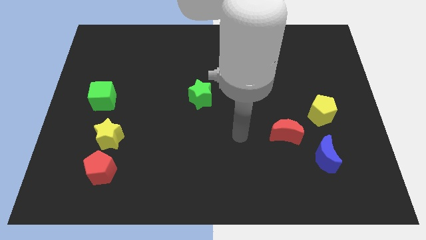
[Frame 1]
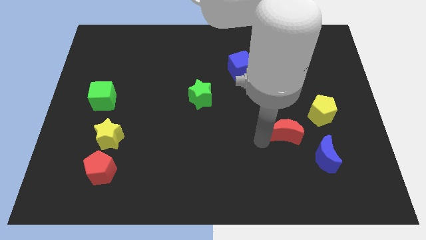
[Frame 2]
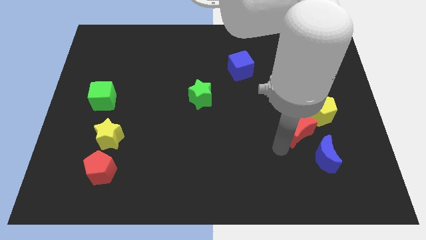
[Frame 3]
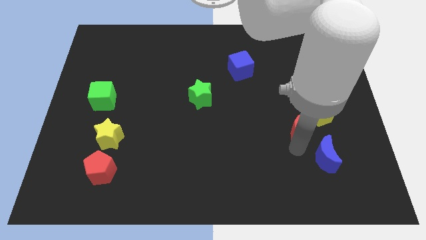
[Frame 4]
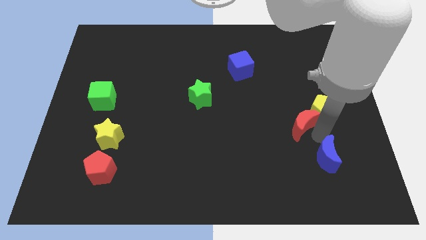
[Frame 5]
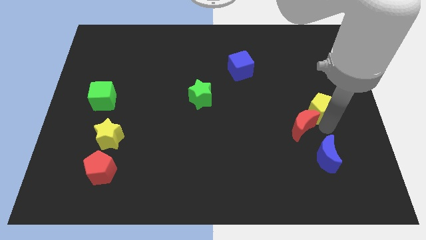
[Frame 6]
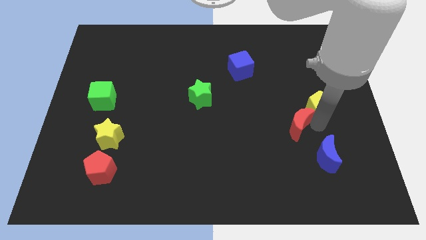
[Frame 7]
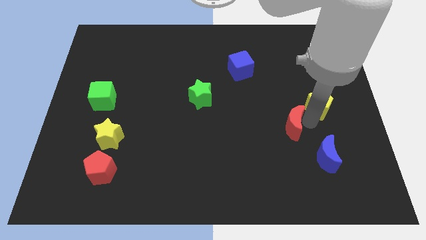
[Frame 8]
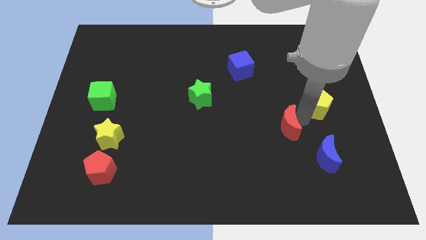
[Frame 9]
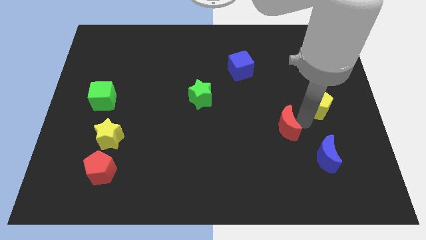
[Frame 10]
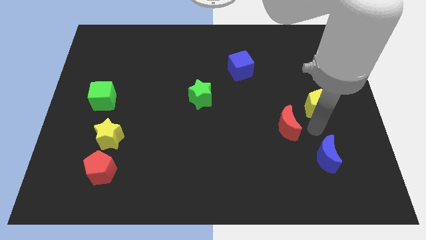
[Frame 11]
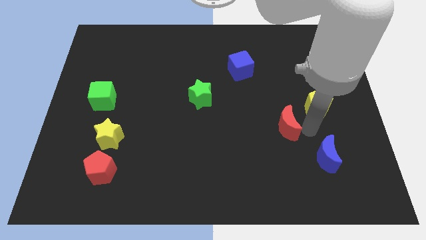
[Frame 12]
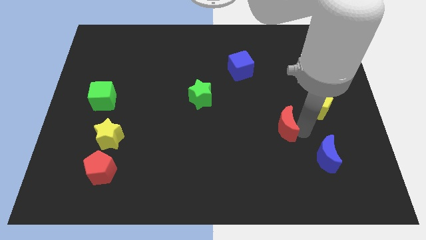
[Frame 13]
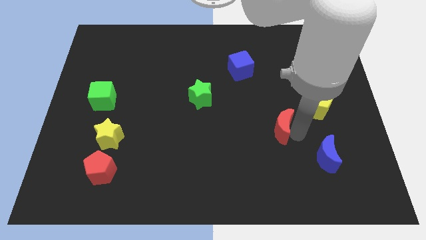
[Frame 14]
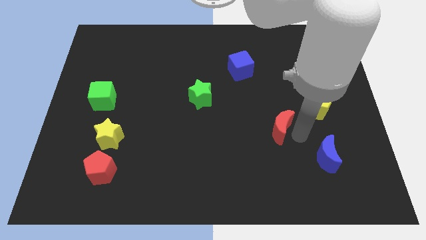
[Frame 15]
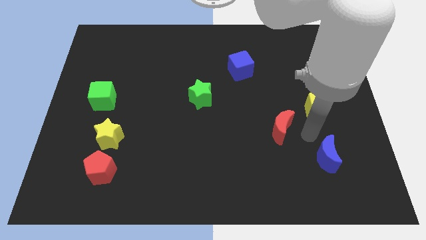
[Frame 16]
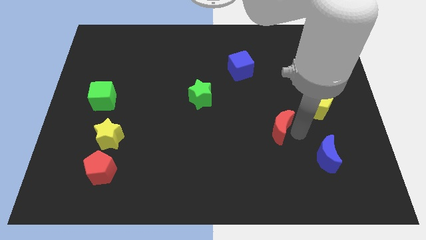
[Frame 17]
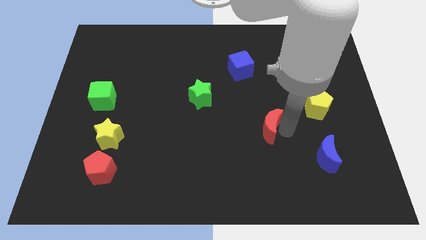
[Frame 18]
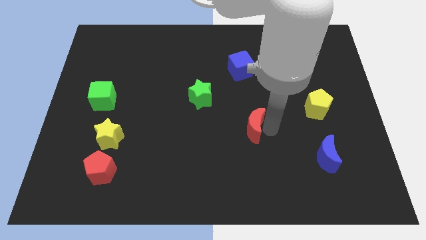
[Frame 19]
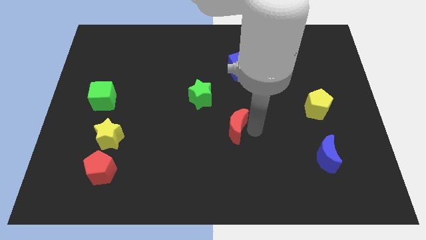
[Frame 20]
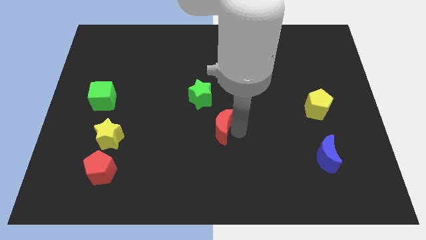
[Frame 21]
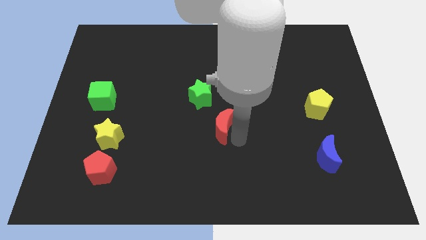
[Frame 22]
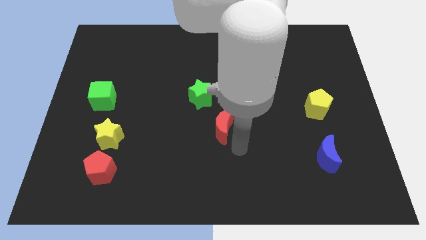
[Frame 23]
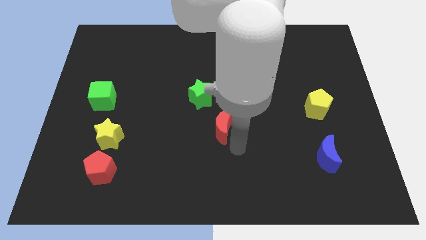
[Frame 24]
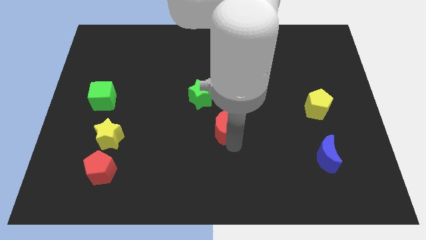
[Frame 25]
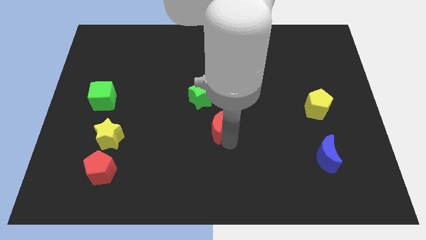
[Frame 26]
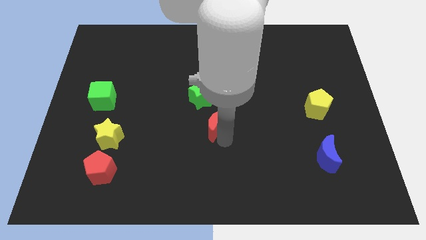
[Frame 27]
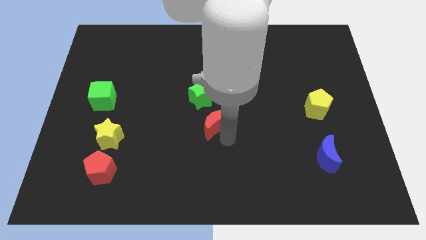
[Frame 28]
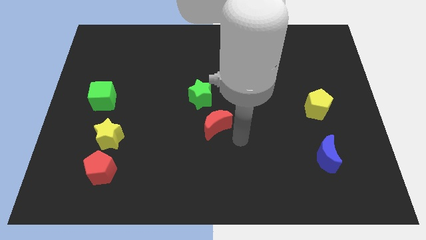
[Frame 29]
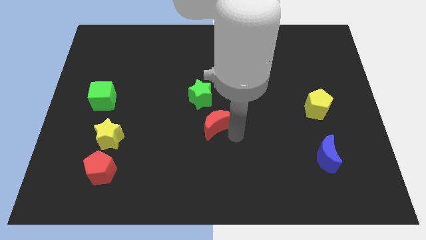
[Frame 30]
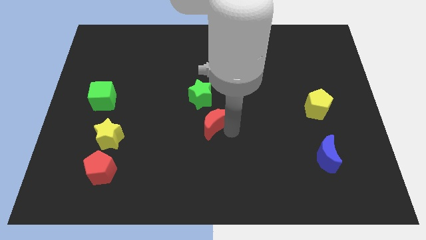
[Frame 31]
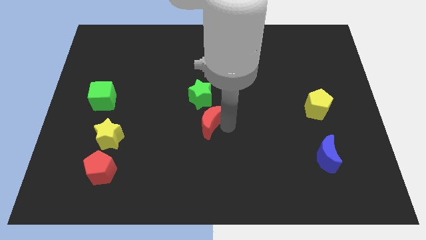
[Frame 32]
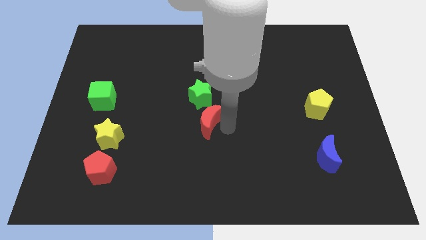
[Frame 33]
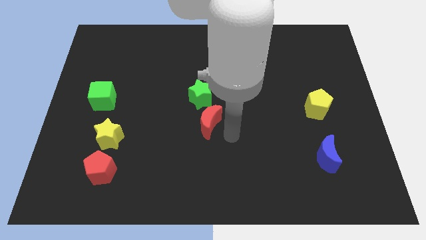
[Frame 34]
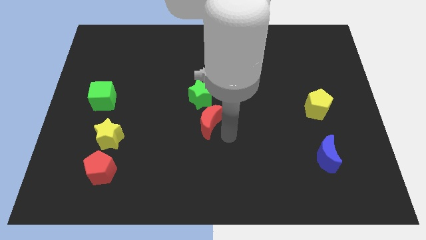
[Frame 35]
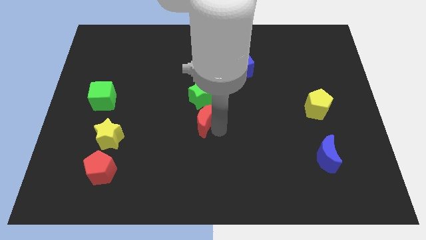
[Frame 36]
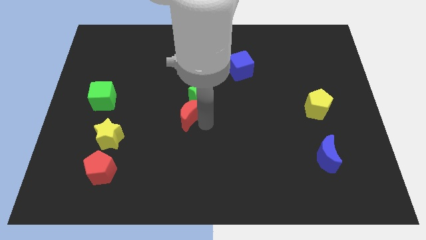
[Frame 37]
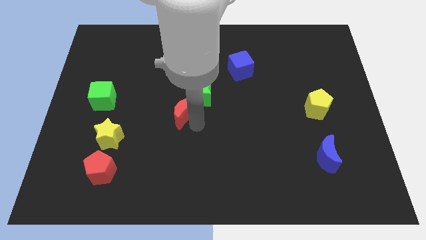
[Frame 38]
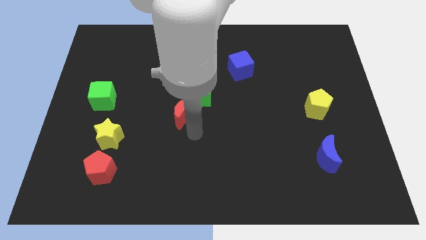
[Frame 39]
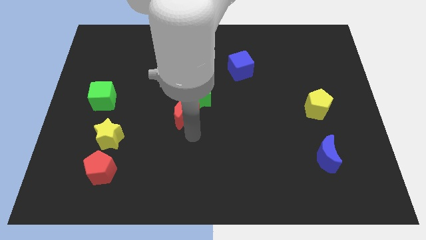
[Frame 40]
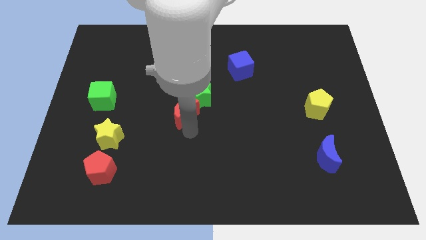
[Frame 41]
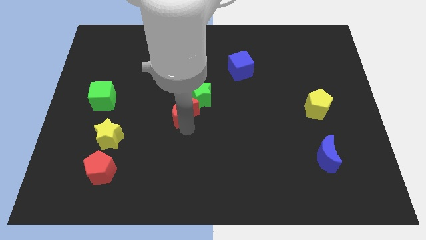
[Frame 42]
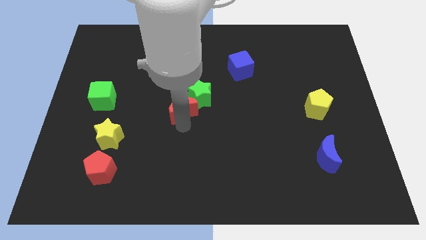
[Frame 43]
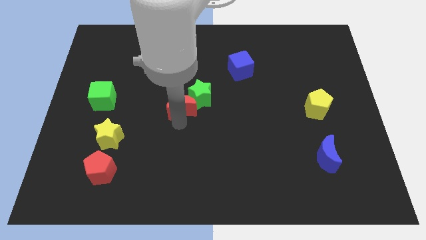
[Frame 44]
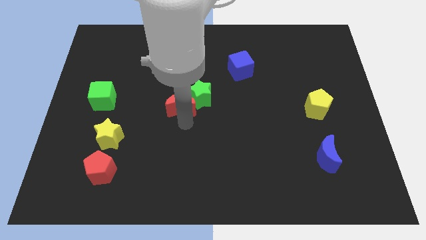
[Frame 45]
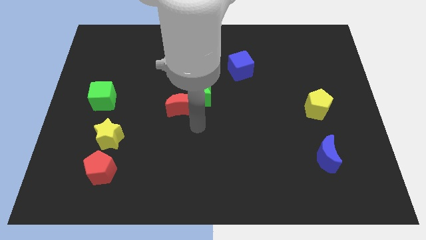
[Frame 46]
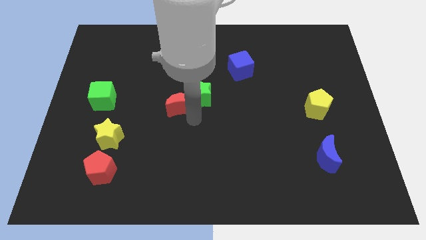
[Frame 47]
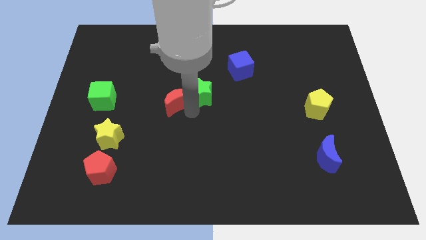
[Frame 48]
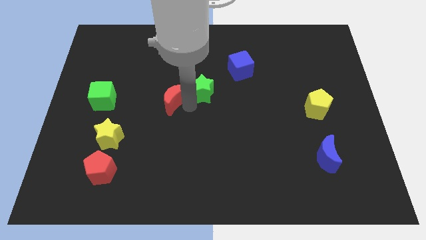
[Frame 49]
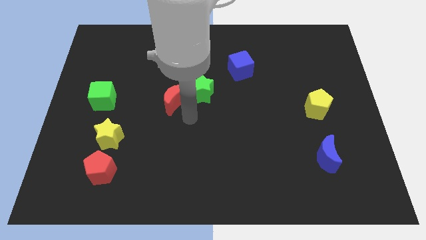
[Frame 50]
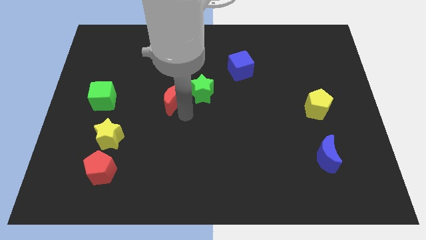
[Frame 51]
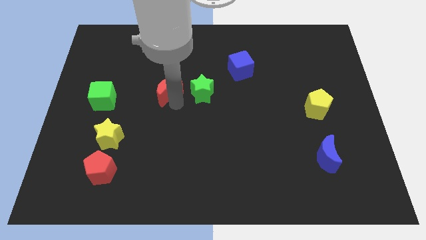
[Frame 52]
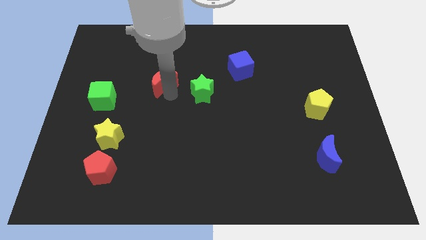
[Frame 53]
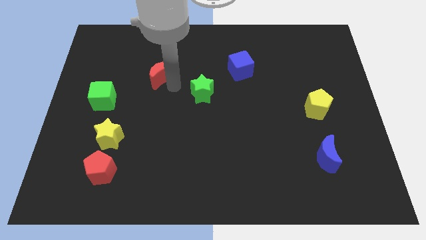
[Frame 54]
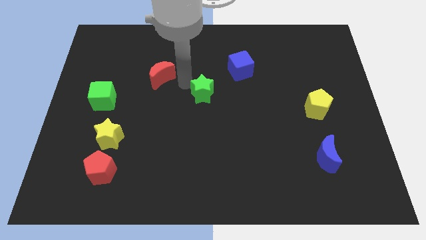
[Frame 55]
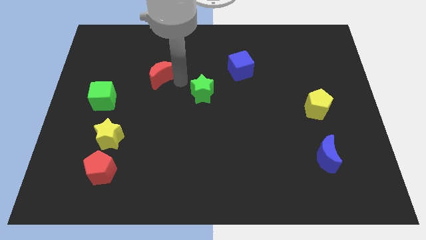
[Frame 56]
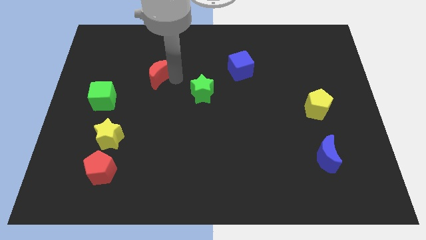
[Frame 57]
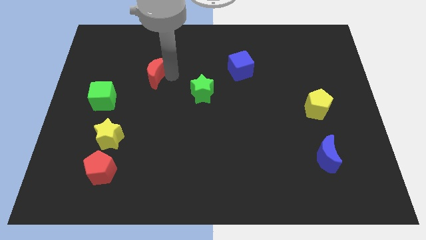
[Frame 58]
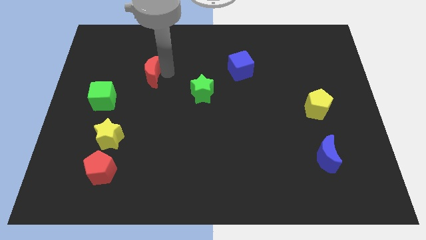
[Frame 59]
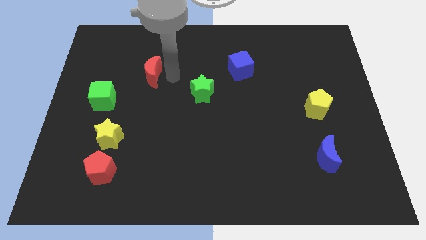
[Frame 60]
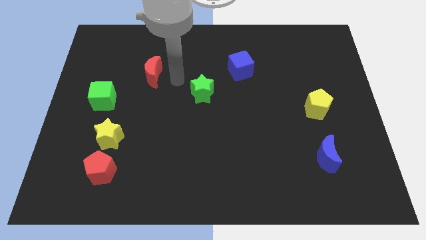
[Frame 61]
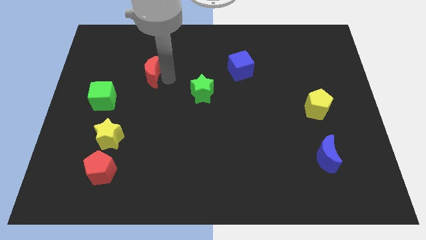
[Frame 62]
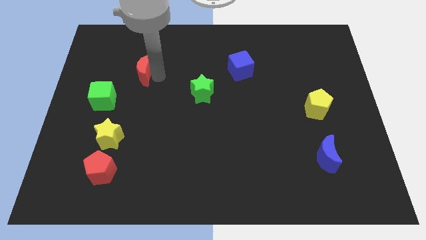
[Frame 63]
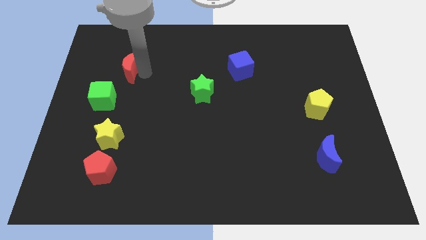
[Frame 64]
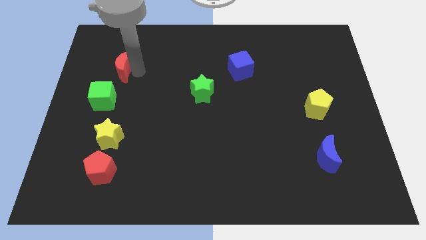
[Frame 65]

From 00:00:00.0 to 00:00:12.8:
move the red moon above the green cube

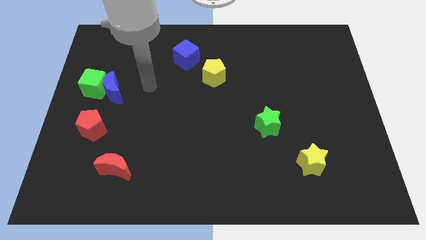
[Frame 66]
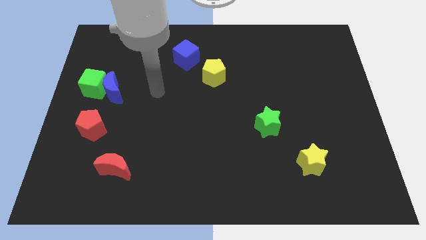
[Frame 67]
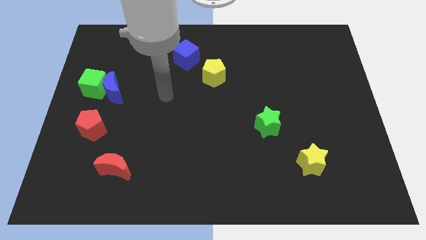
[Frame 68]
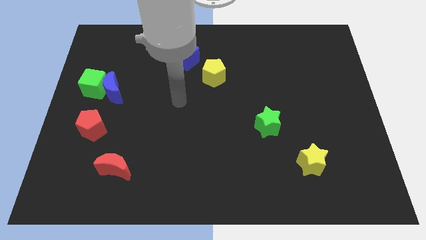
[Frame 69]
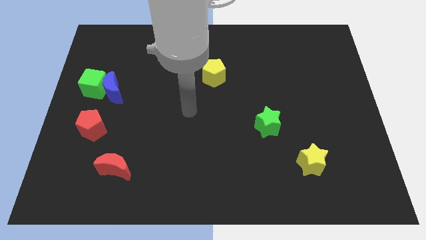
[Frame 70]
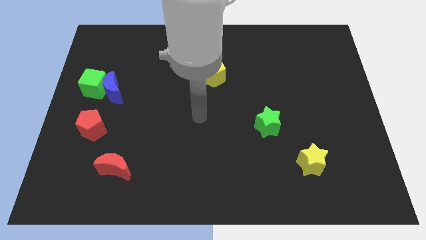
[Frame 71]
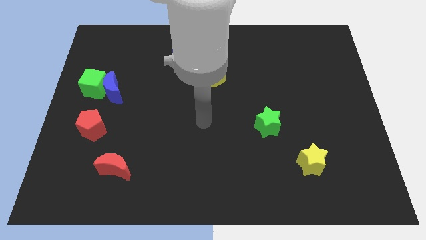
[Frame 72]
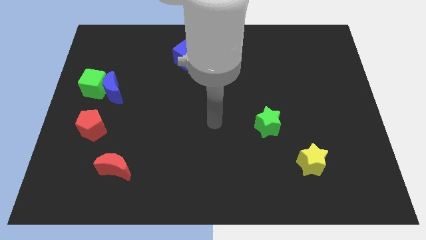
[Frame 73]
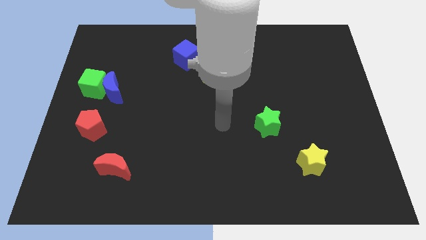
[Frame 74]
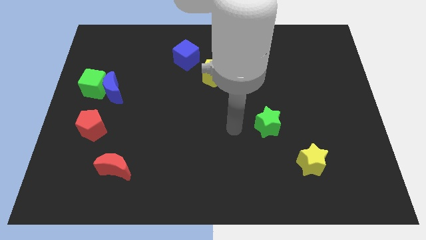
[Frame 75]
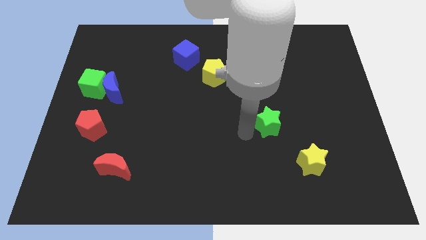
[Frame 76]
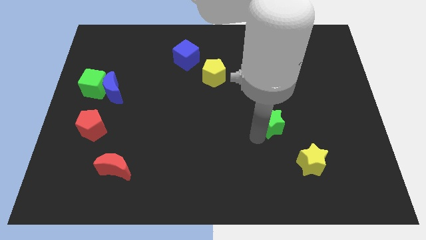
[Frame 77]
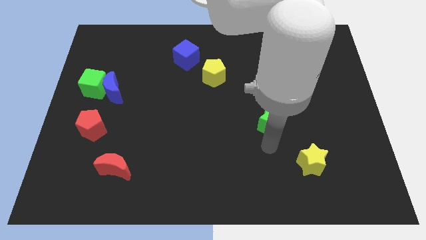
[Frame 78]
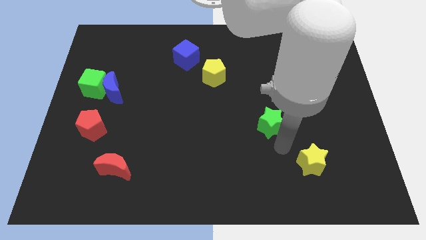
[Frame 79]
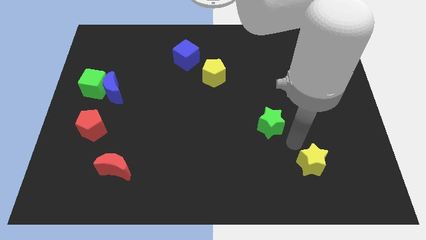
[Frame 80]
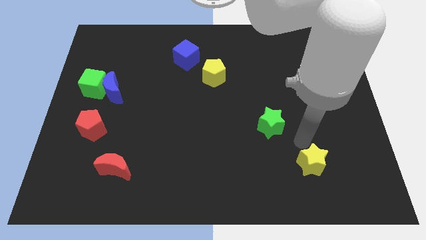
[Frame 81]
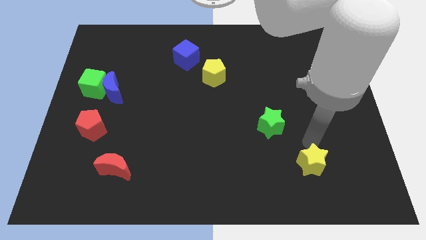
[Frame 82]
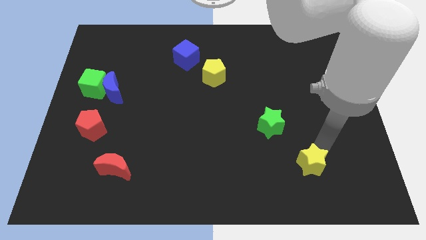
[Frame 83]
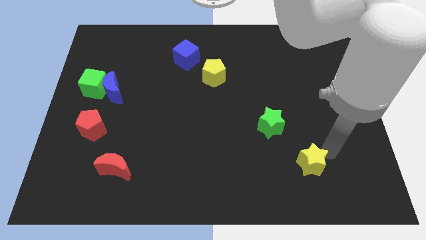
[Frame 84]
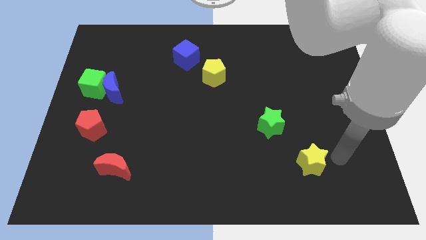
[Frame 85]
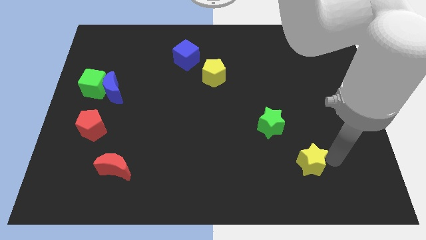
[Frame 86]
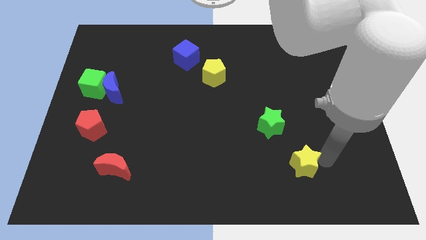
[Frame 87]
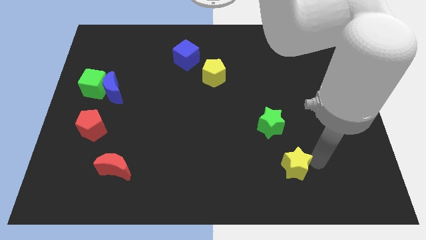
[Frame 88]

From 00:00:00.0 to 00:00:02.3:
push the yellow star to the bottom of the green star

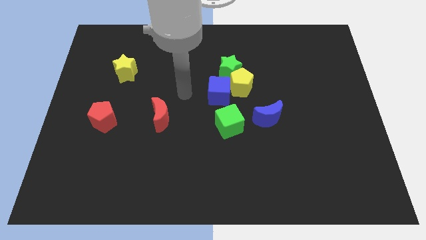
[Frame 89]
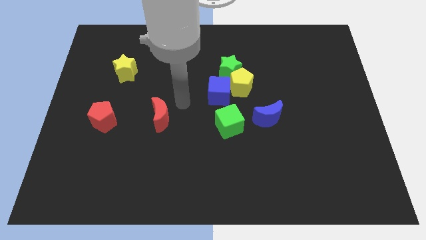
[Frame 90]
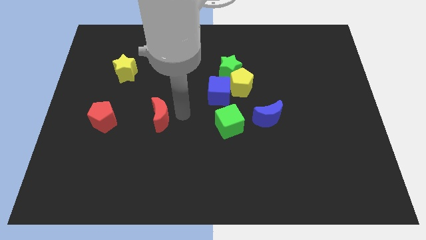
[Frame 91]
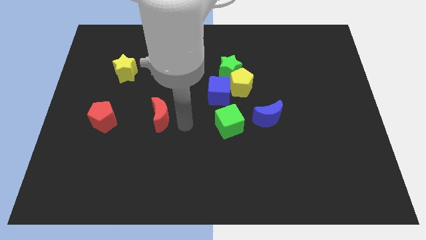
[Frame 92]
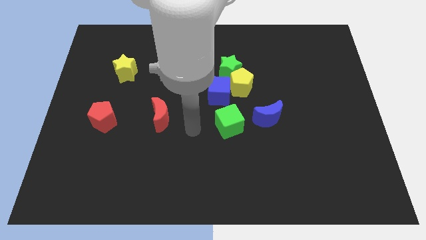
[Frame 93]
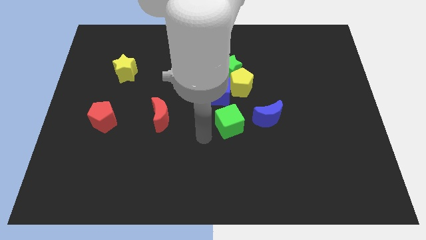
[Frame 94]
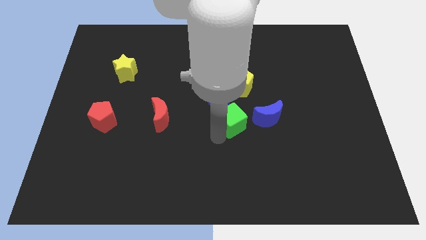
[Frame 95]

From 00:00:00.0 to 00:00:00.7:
move the blue moon to the top right side of the green cube
